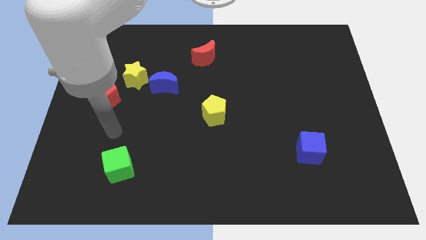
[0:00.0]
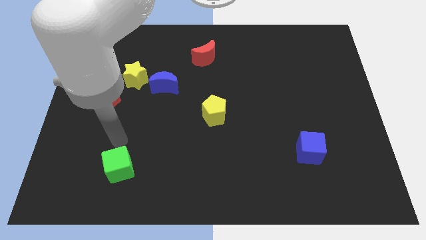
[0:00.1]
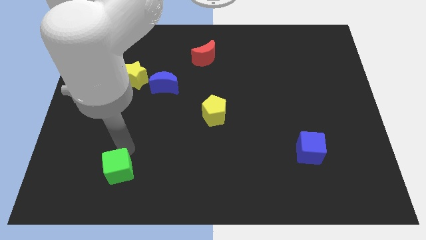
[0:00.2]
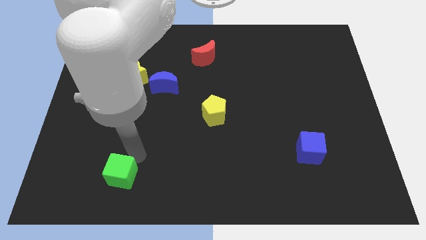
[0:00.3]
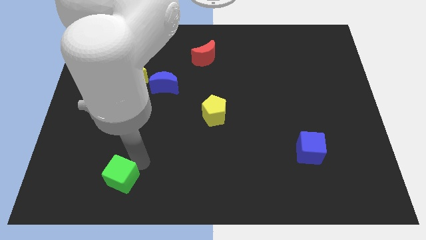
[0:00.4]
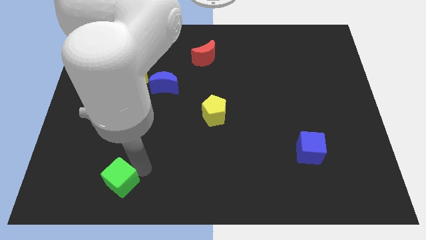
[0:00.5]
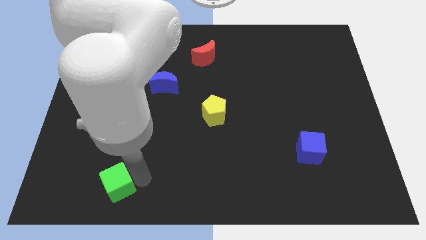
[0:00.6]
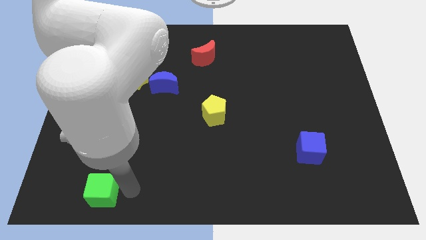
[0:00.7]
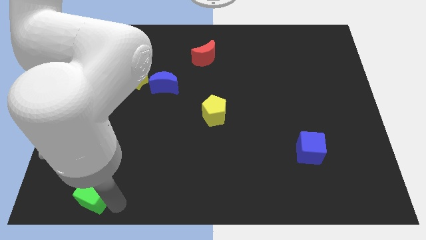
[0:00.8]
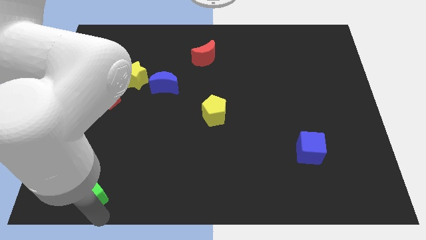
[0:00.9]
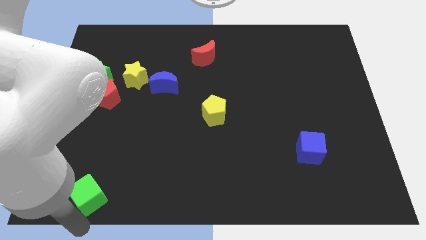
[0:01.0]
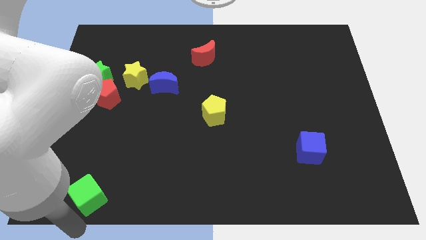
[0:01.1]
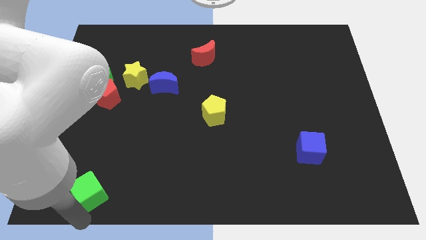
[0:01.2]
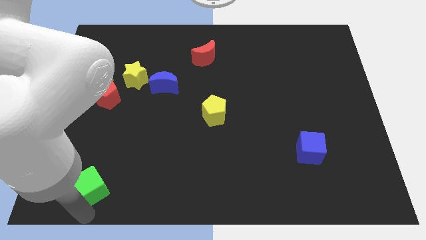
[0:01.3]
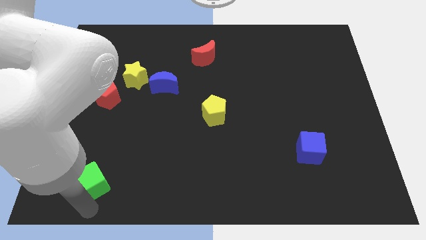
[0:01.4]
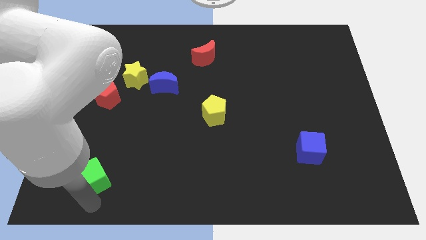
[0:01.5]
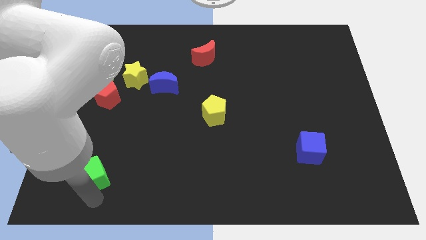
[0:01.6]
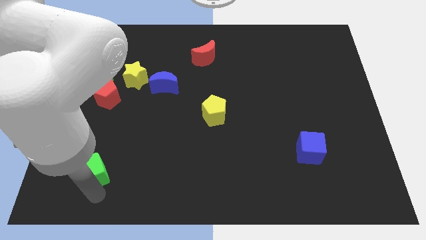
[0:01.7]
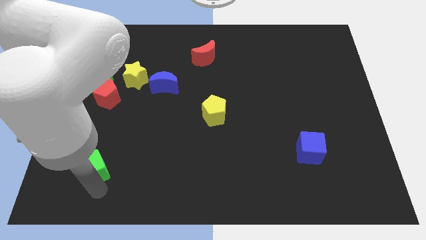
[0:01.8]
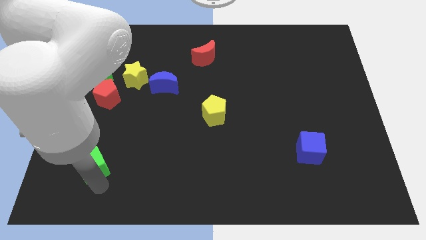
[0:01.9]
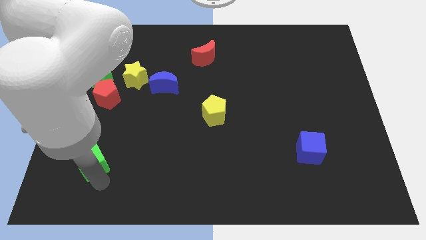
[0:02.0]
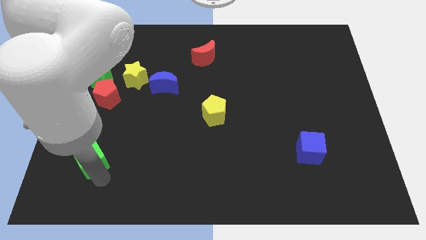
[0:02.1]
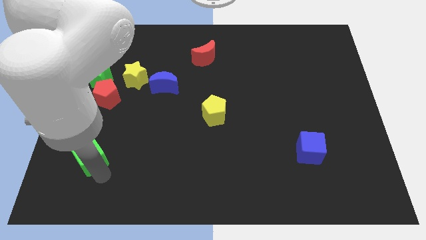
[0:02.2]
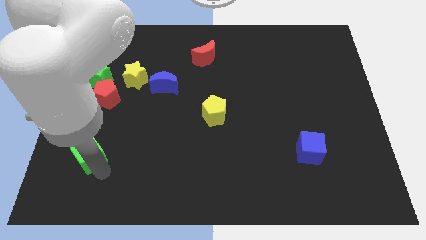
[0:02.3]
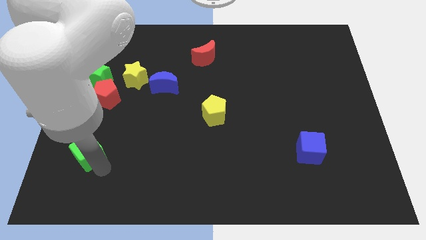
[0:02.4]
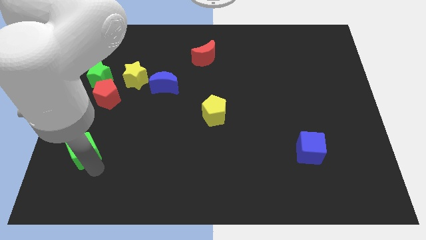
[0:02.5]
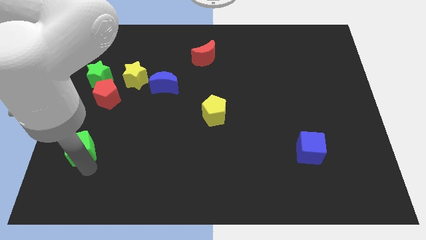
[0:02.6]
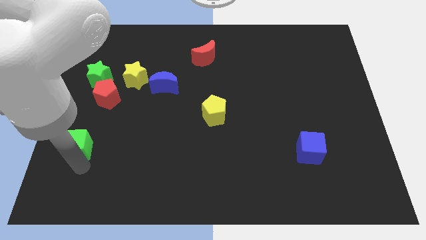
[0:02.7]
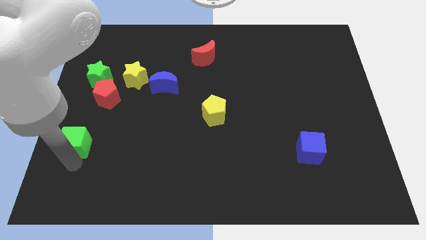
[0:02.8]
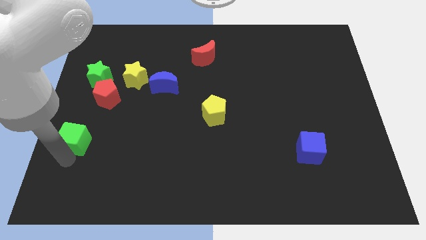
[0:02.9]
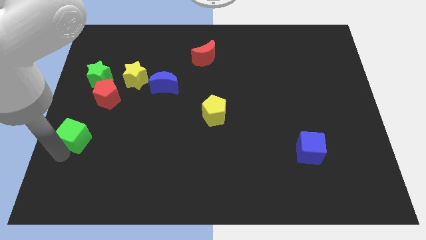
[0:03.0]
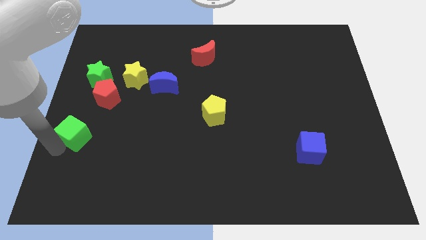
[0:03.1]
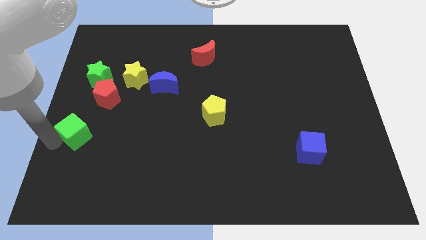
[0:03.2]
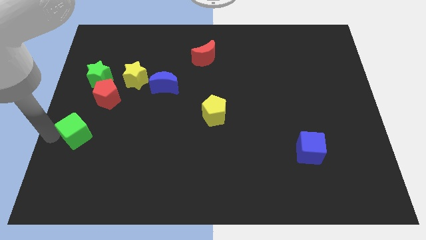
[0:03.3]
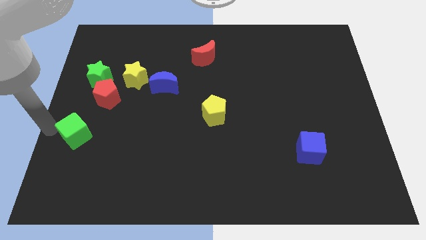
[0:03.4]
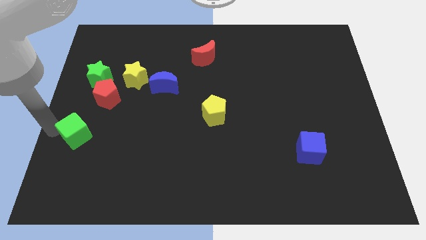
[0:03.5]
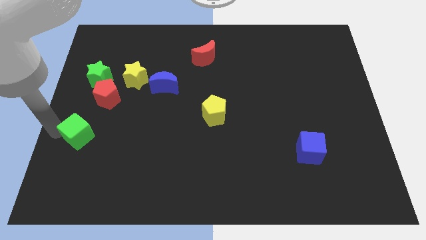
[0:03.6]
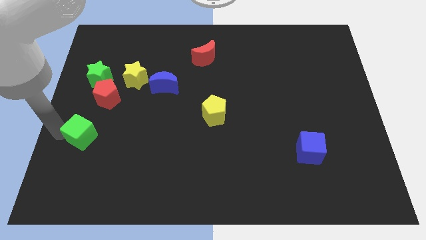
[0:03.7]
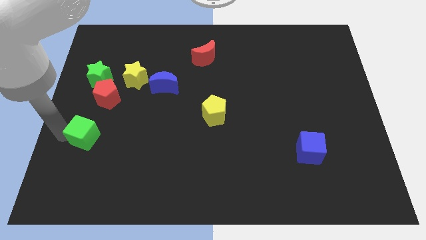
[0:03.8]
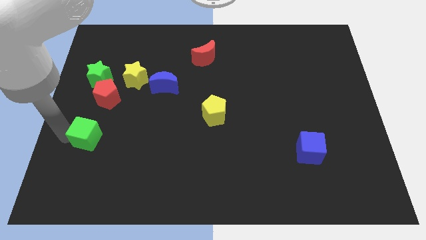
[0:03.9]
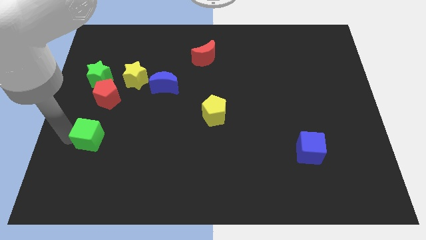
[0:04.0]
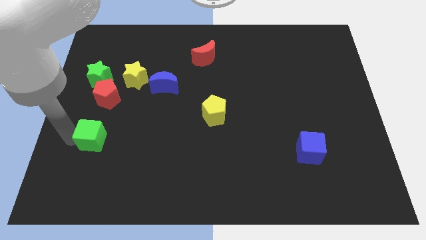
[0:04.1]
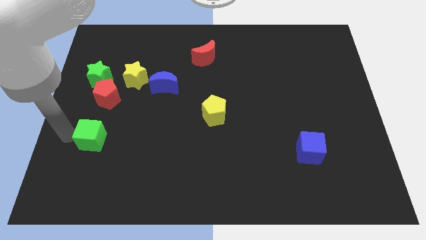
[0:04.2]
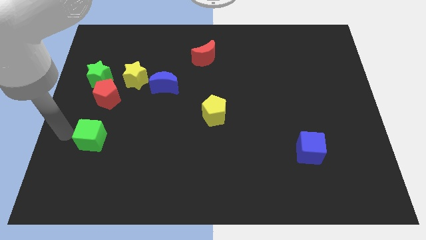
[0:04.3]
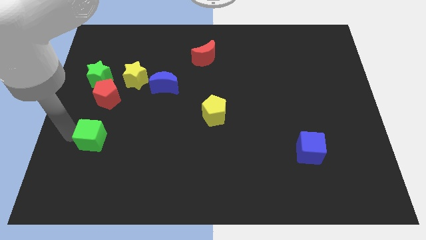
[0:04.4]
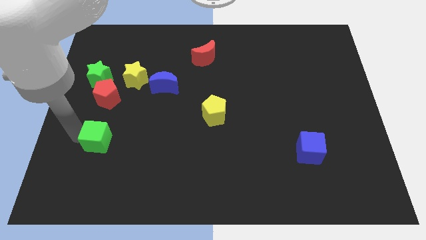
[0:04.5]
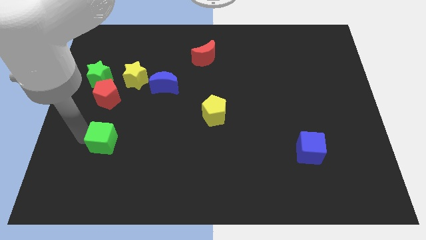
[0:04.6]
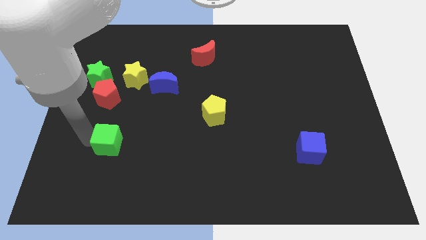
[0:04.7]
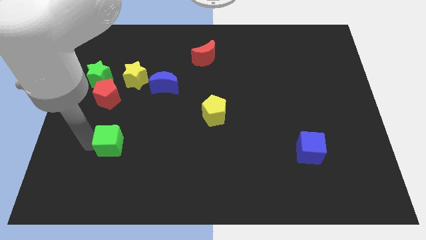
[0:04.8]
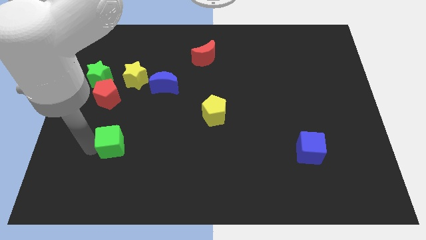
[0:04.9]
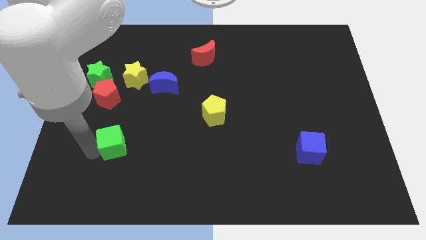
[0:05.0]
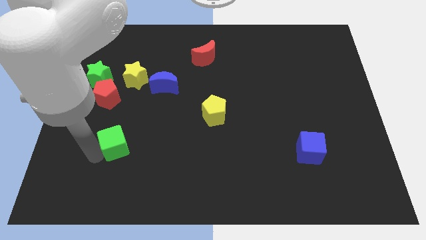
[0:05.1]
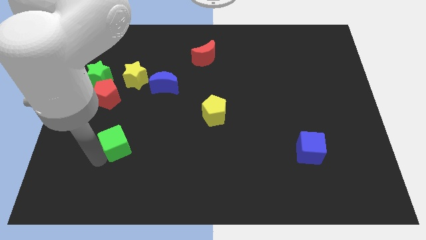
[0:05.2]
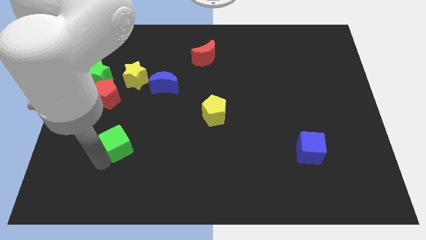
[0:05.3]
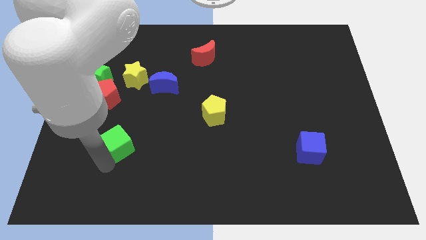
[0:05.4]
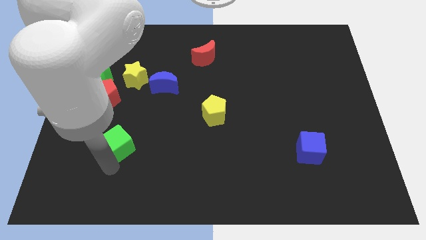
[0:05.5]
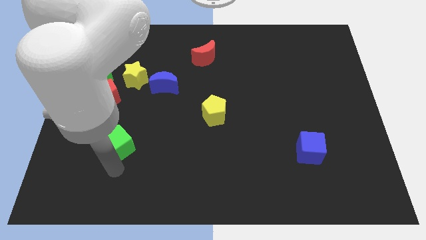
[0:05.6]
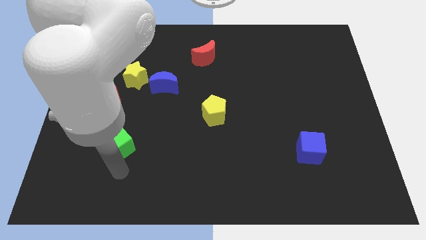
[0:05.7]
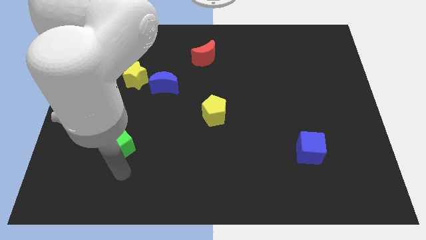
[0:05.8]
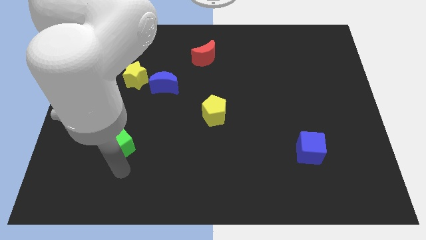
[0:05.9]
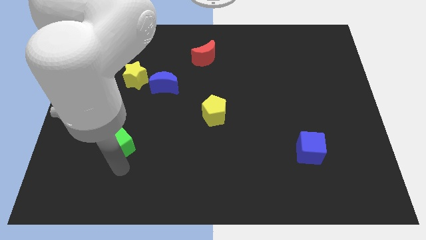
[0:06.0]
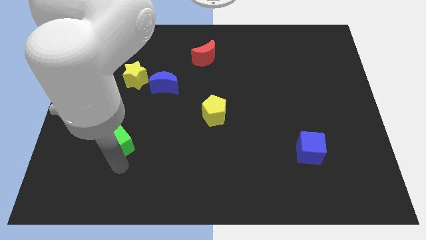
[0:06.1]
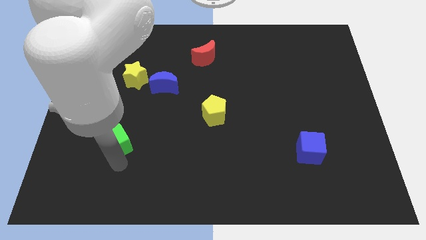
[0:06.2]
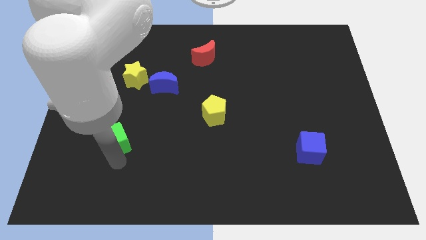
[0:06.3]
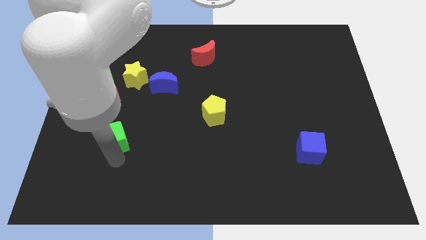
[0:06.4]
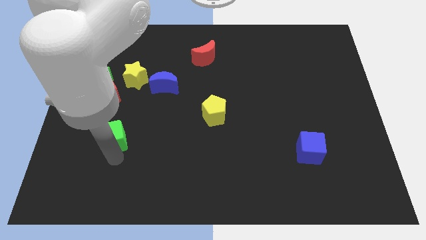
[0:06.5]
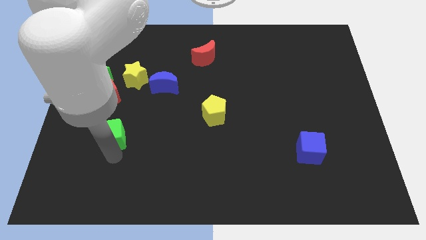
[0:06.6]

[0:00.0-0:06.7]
move the green cube slightly upwards

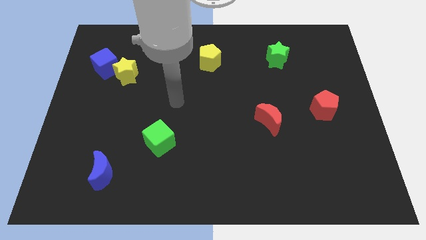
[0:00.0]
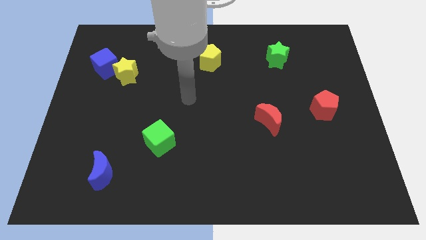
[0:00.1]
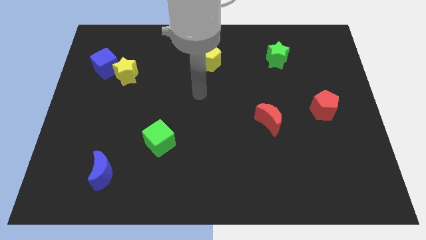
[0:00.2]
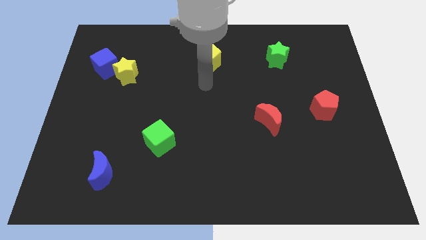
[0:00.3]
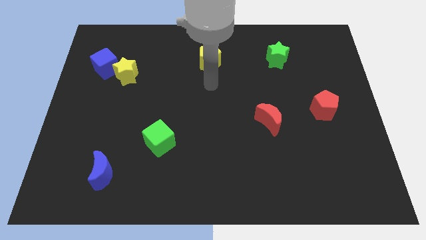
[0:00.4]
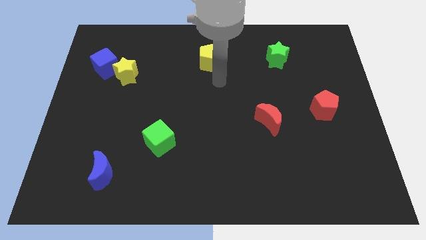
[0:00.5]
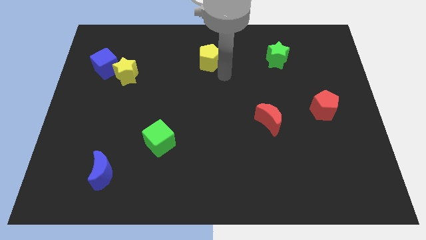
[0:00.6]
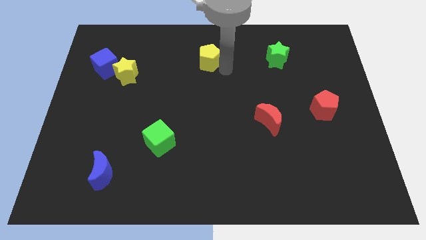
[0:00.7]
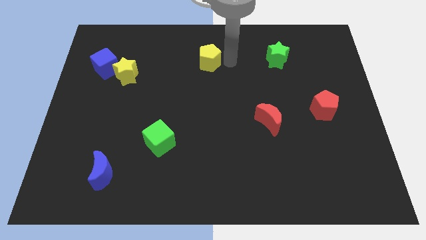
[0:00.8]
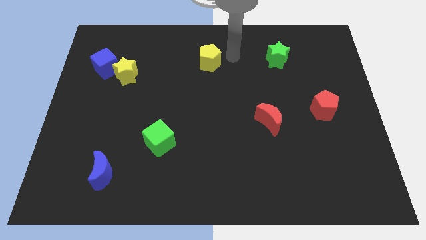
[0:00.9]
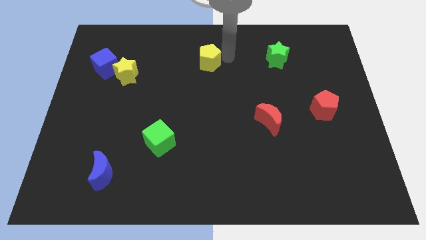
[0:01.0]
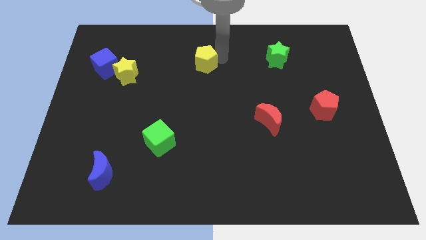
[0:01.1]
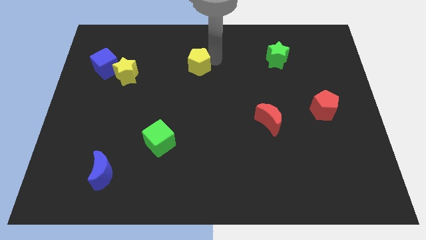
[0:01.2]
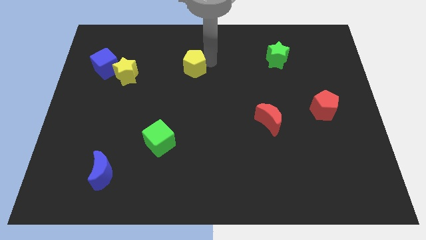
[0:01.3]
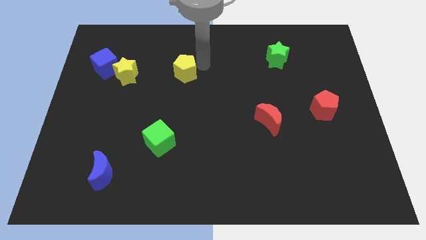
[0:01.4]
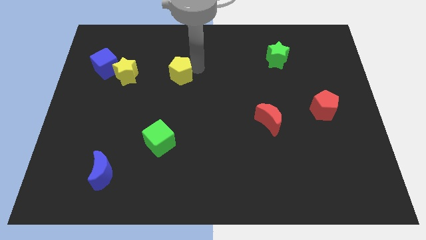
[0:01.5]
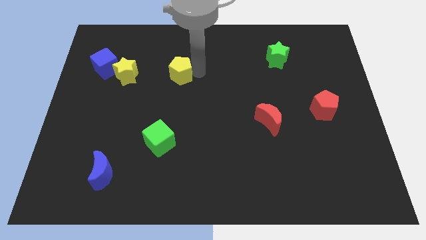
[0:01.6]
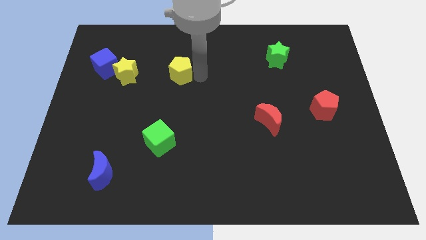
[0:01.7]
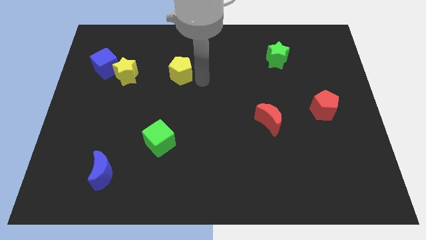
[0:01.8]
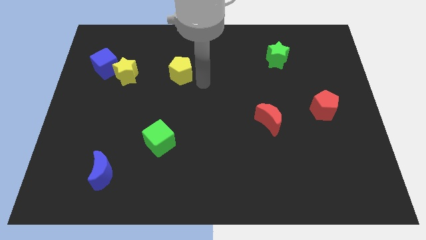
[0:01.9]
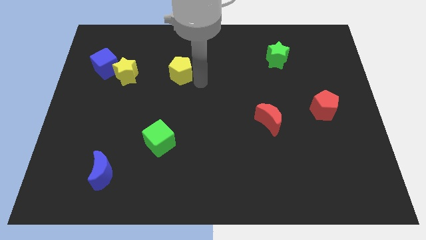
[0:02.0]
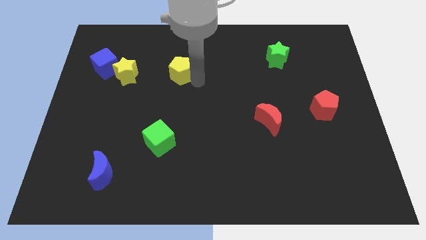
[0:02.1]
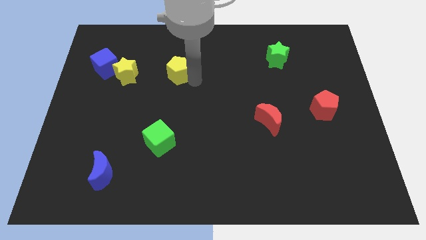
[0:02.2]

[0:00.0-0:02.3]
slightly push the yellow pentagon to the left
